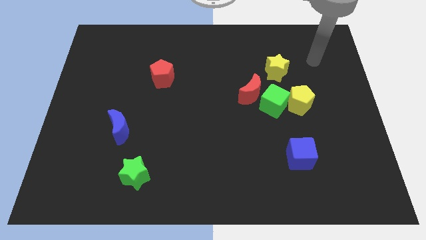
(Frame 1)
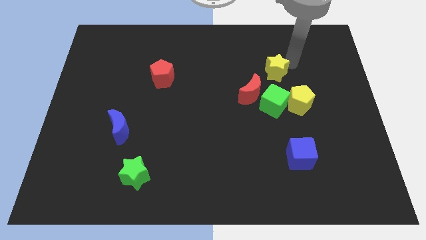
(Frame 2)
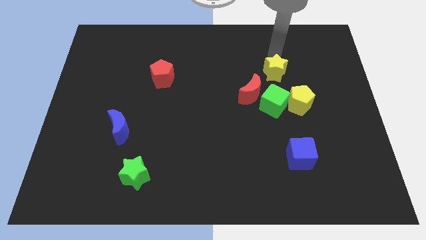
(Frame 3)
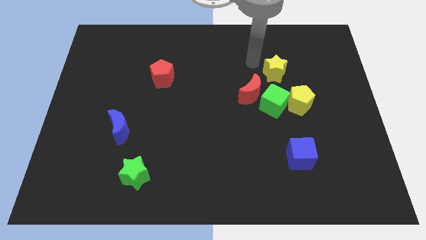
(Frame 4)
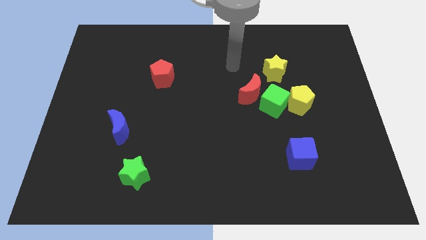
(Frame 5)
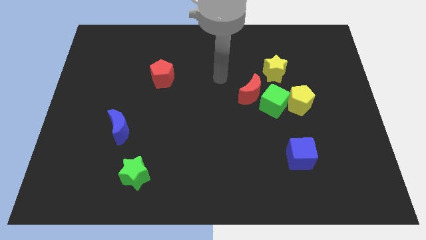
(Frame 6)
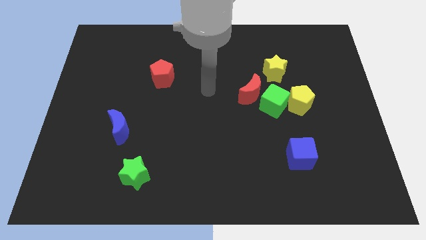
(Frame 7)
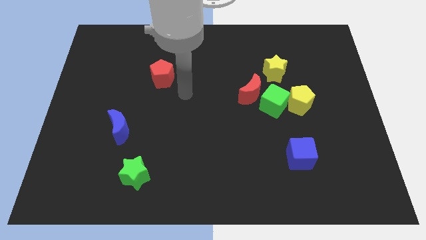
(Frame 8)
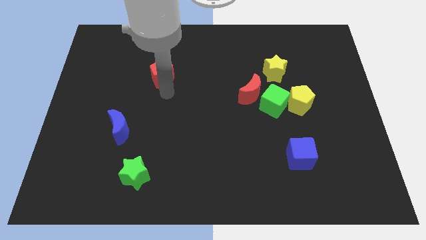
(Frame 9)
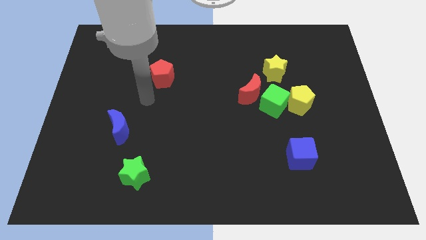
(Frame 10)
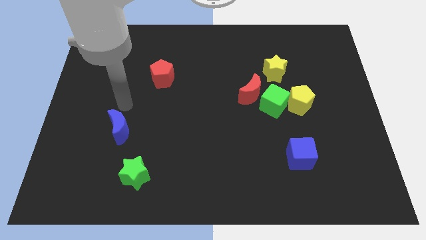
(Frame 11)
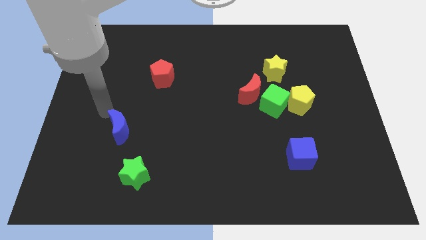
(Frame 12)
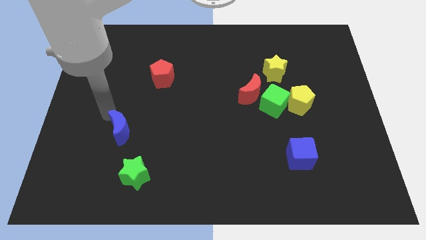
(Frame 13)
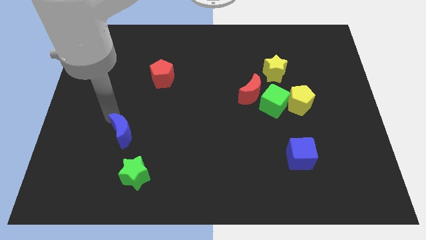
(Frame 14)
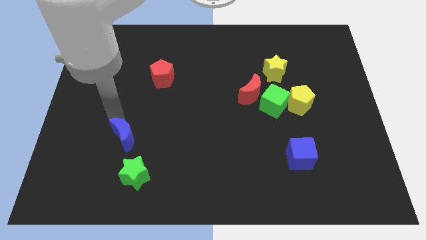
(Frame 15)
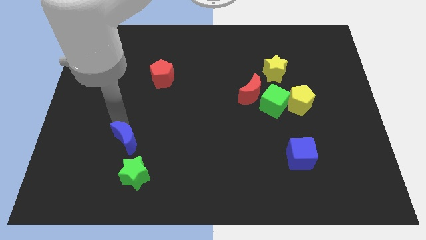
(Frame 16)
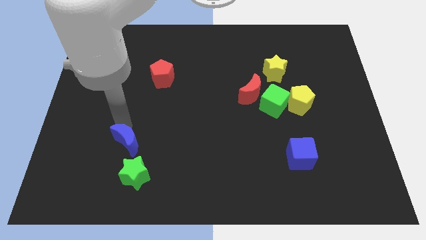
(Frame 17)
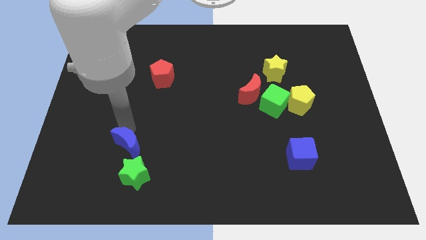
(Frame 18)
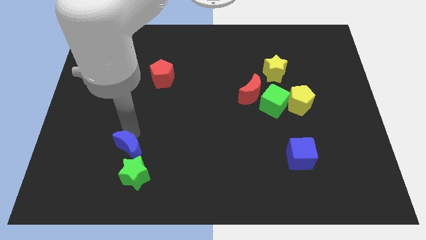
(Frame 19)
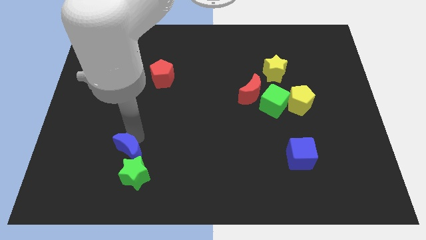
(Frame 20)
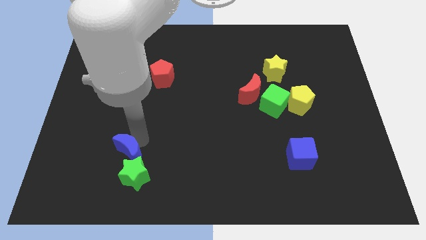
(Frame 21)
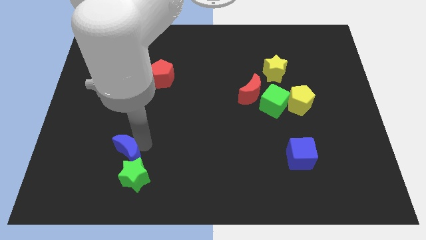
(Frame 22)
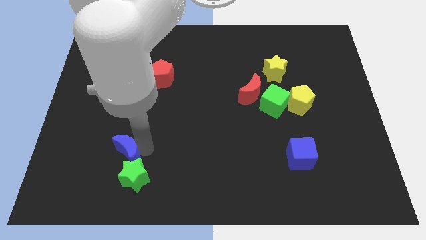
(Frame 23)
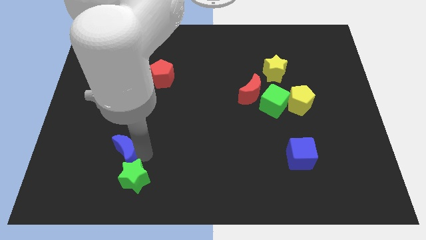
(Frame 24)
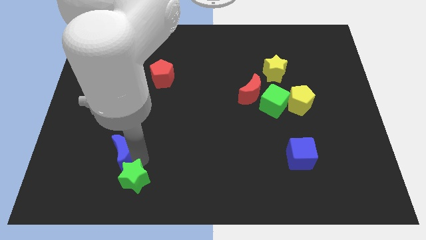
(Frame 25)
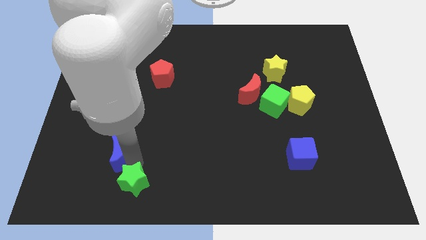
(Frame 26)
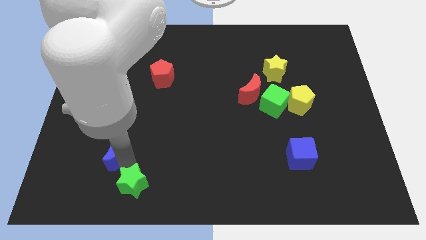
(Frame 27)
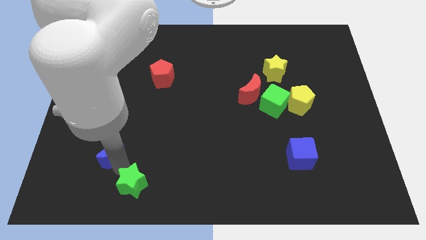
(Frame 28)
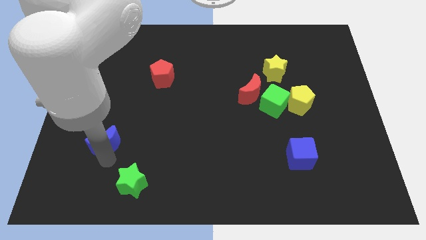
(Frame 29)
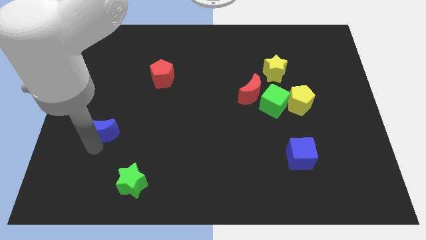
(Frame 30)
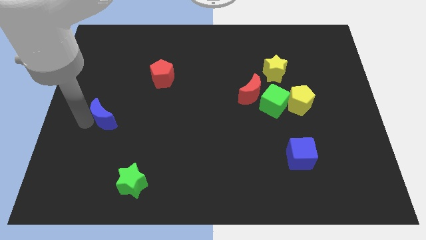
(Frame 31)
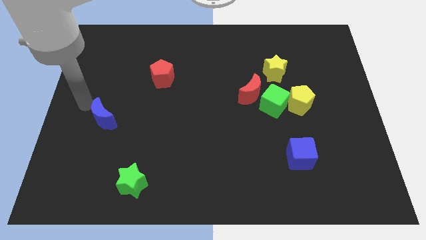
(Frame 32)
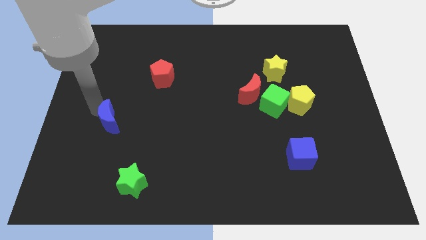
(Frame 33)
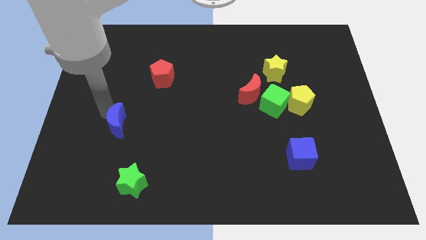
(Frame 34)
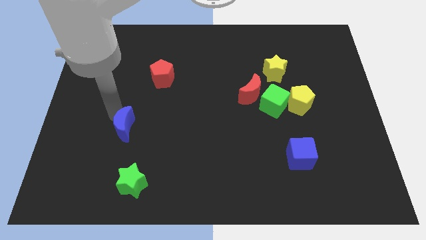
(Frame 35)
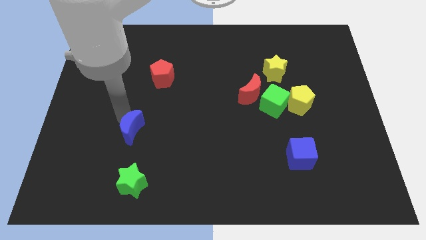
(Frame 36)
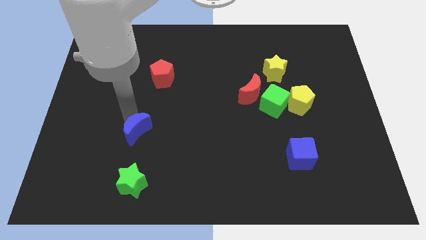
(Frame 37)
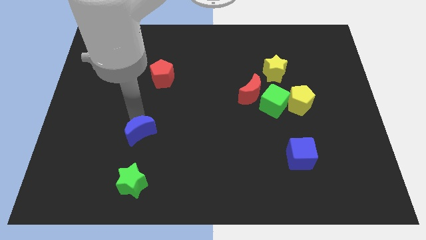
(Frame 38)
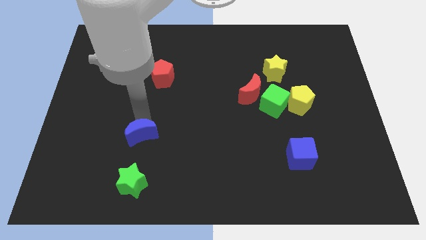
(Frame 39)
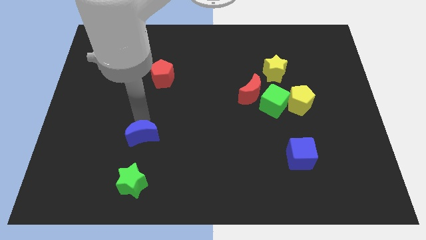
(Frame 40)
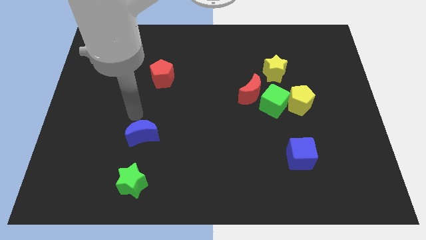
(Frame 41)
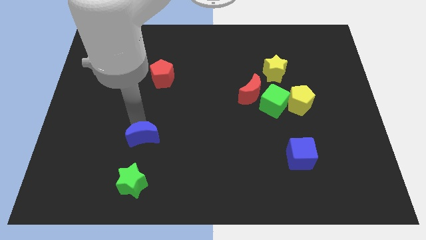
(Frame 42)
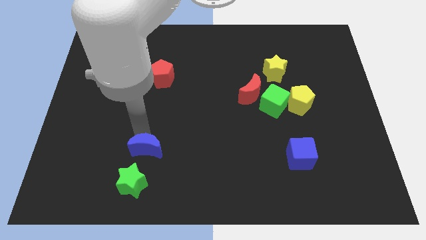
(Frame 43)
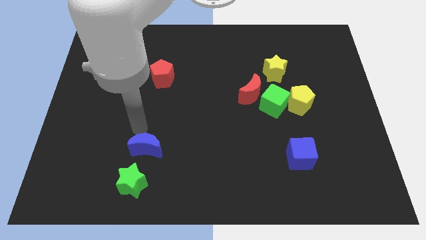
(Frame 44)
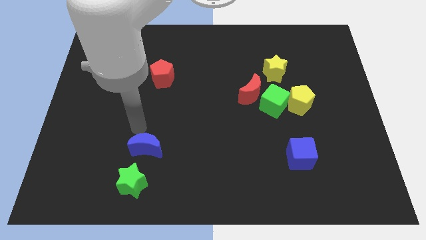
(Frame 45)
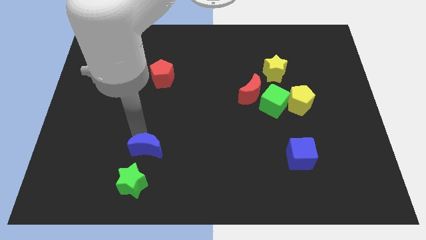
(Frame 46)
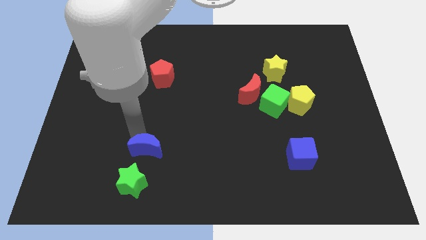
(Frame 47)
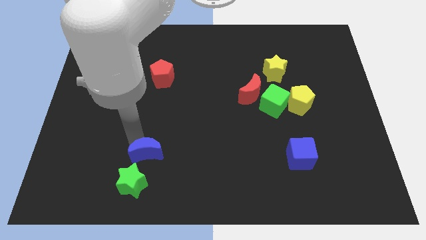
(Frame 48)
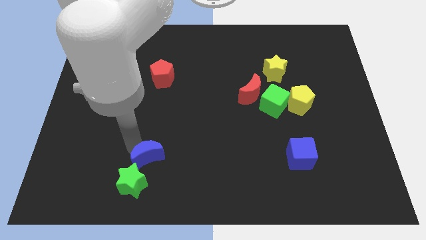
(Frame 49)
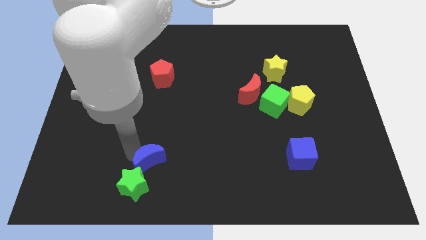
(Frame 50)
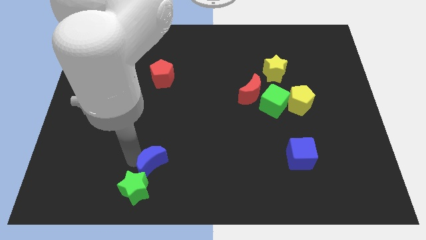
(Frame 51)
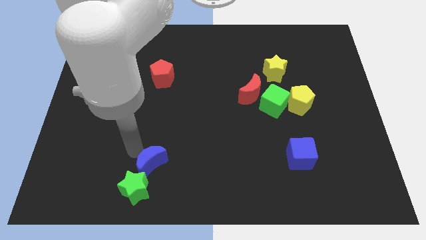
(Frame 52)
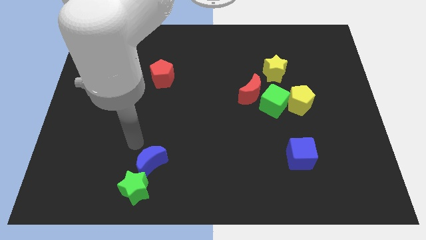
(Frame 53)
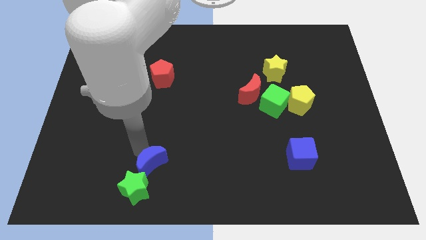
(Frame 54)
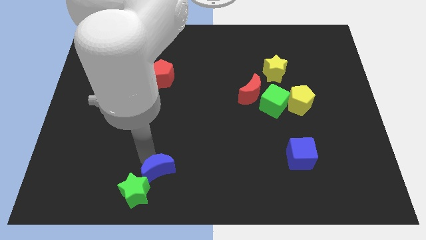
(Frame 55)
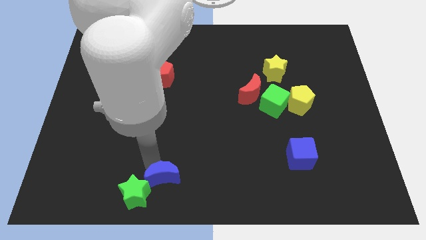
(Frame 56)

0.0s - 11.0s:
put the blue moon to the bottom side

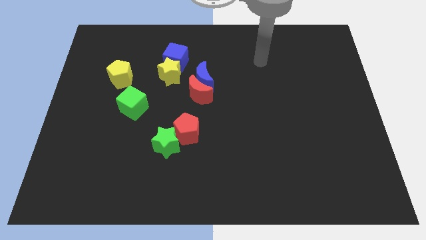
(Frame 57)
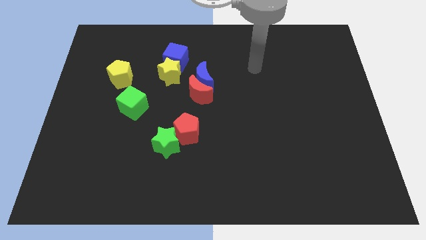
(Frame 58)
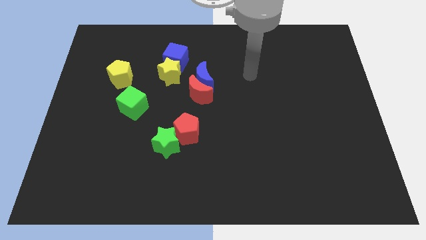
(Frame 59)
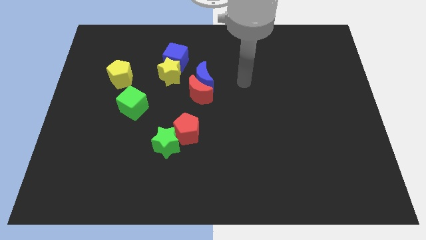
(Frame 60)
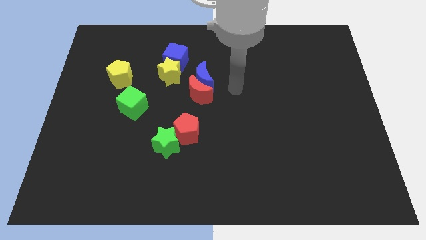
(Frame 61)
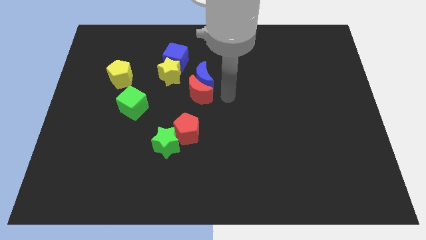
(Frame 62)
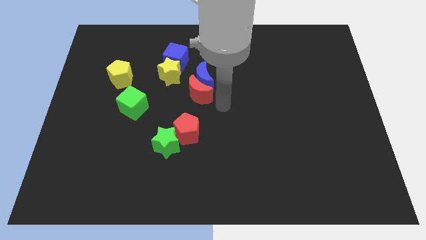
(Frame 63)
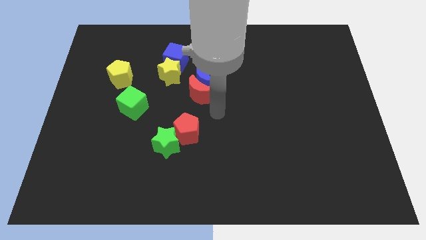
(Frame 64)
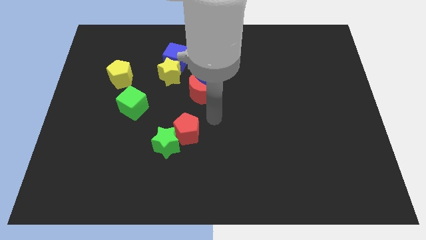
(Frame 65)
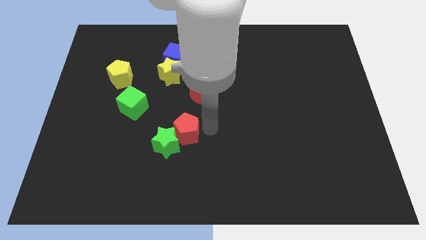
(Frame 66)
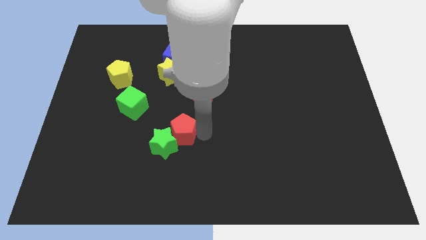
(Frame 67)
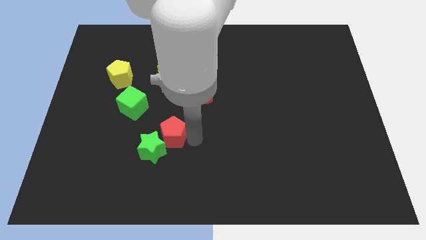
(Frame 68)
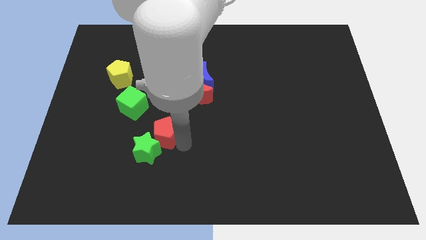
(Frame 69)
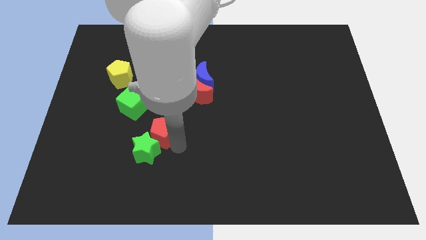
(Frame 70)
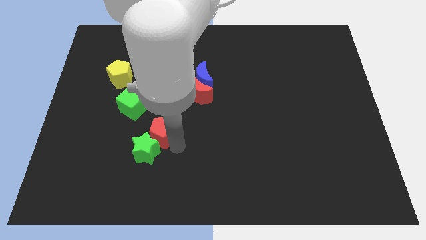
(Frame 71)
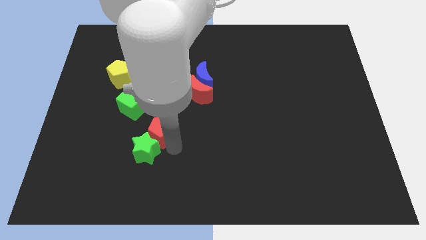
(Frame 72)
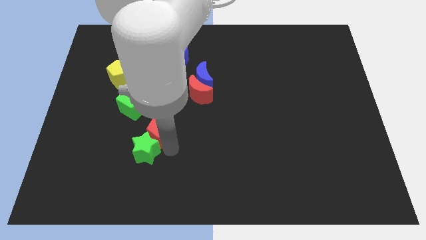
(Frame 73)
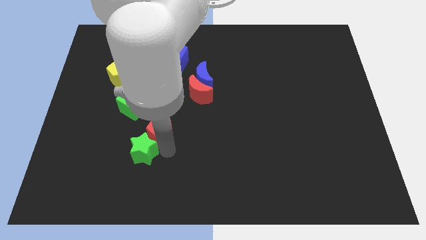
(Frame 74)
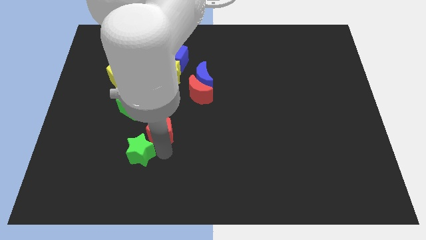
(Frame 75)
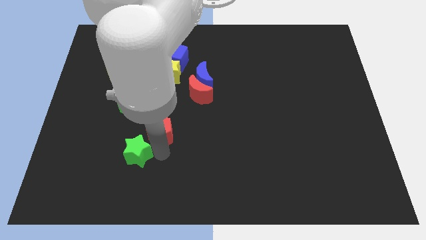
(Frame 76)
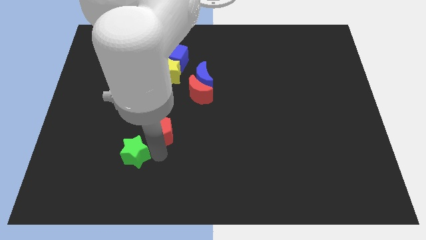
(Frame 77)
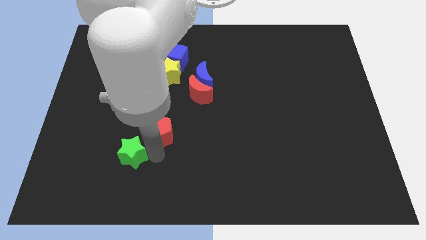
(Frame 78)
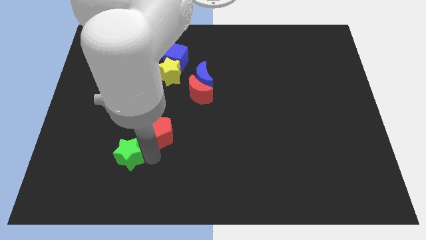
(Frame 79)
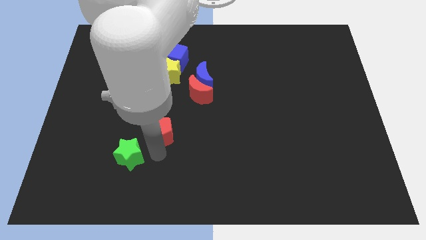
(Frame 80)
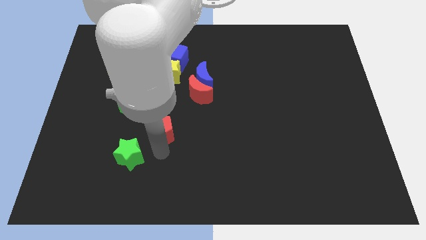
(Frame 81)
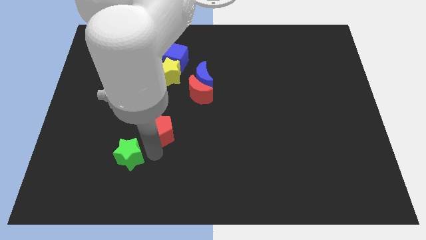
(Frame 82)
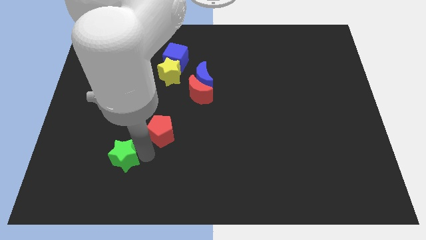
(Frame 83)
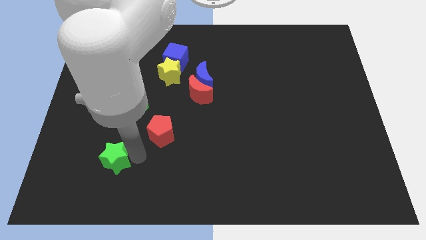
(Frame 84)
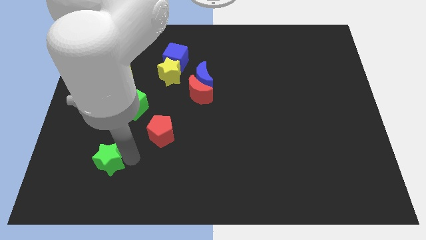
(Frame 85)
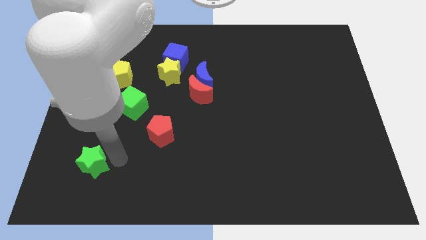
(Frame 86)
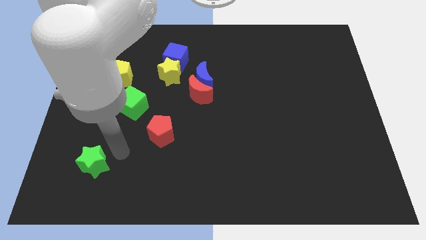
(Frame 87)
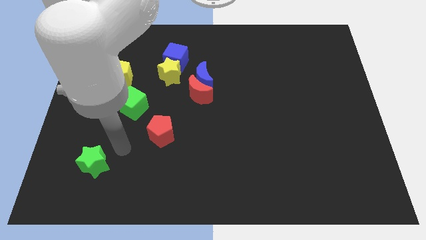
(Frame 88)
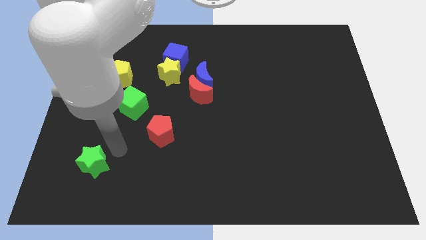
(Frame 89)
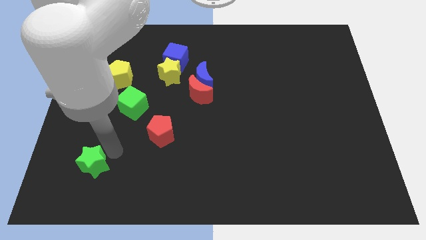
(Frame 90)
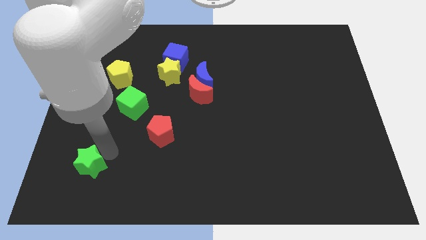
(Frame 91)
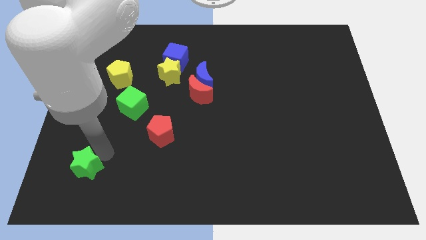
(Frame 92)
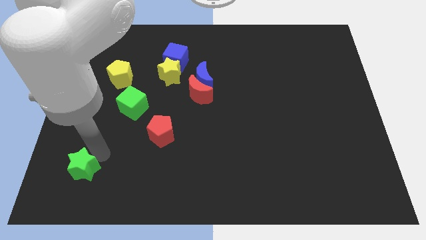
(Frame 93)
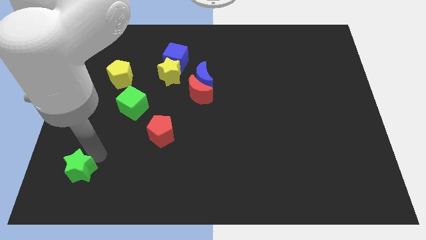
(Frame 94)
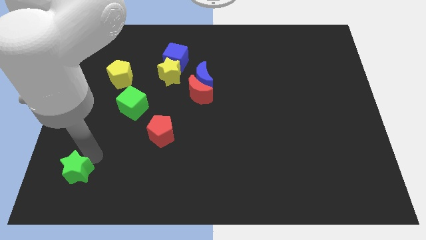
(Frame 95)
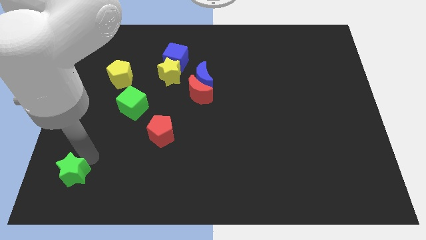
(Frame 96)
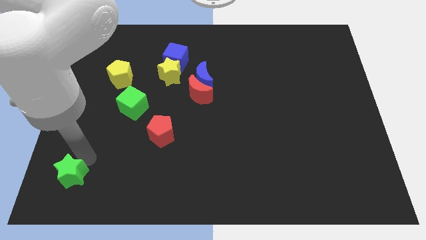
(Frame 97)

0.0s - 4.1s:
move the green star to the bottom left corner
